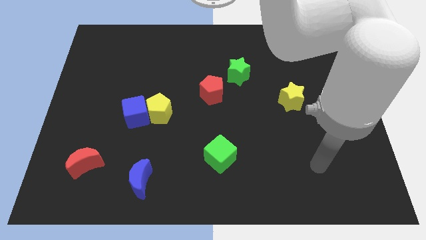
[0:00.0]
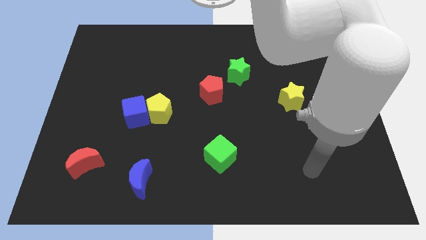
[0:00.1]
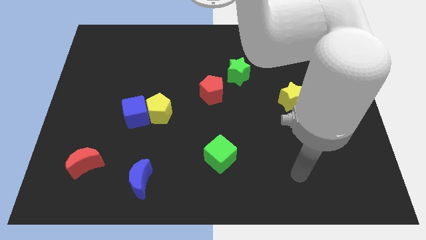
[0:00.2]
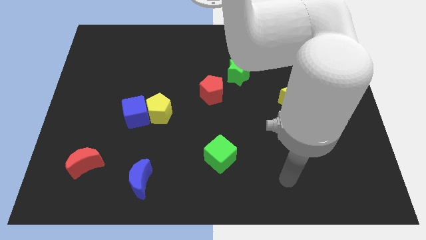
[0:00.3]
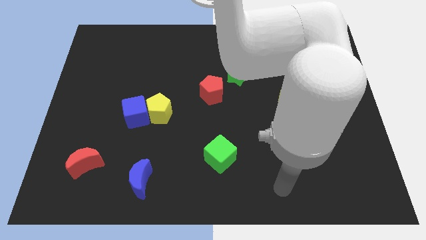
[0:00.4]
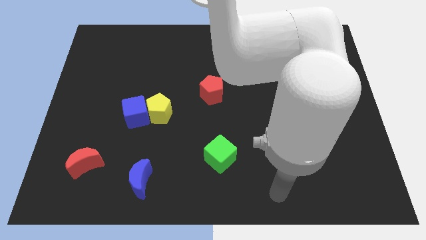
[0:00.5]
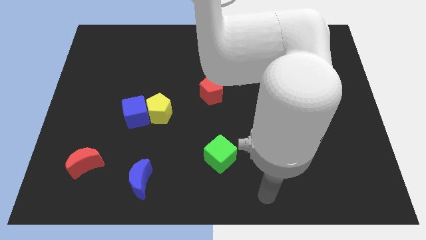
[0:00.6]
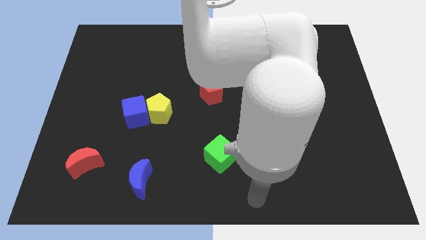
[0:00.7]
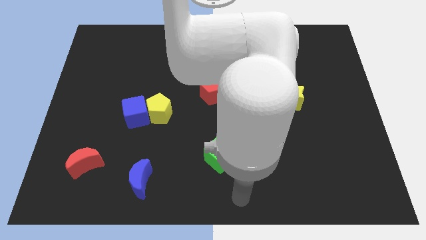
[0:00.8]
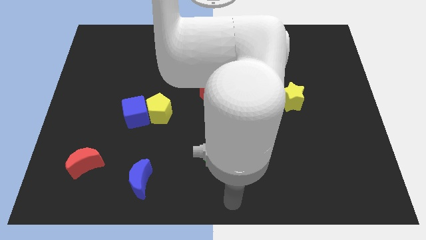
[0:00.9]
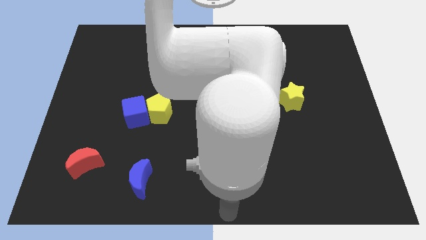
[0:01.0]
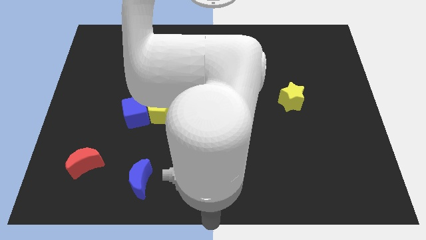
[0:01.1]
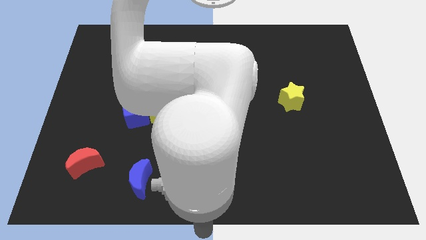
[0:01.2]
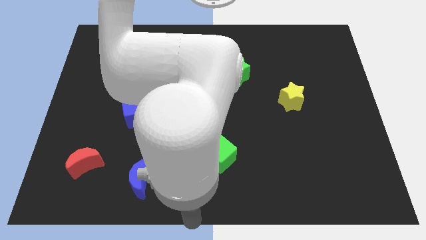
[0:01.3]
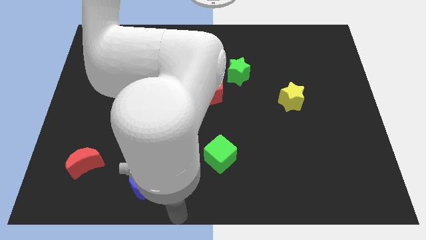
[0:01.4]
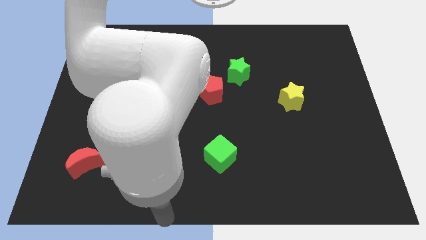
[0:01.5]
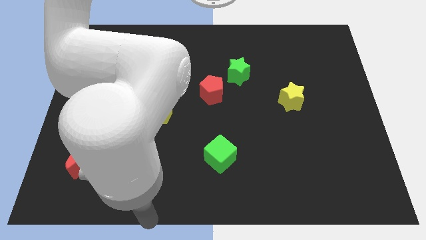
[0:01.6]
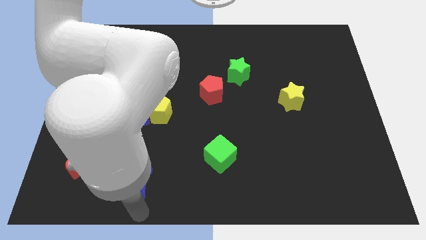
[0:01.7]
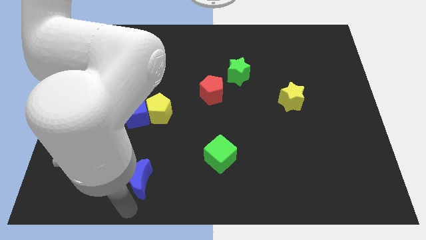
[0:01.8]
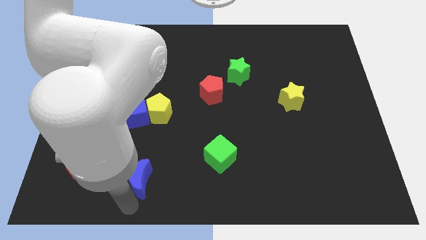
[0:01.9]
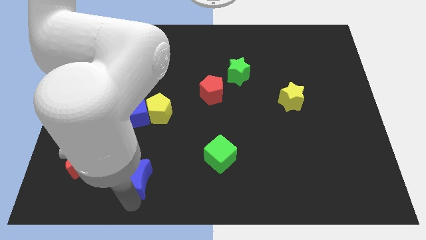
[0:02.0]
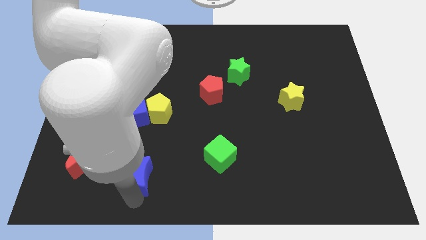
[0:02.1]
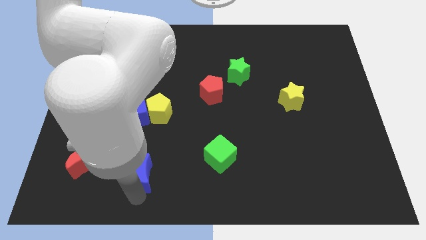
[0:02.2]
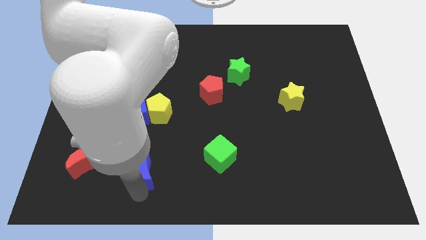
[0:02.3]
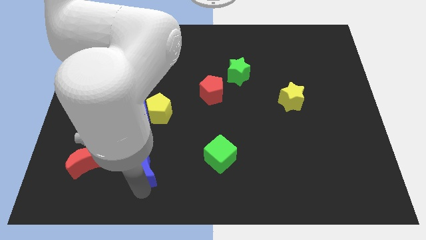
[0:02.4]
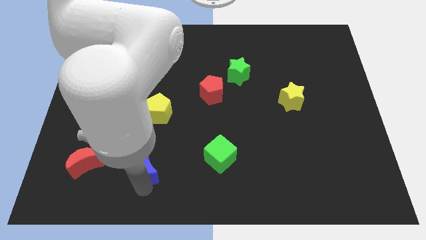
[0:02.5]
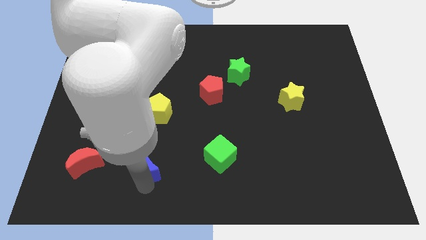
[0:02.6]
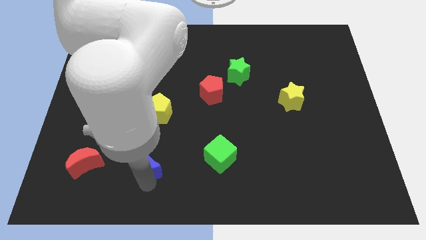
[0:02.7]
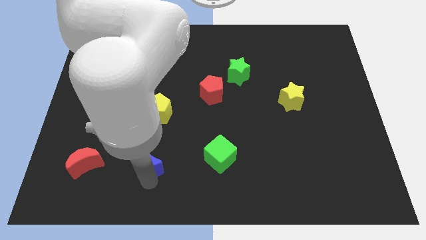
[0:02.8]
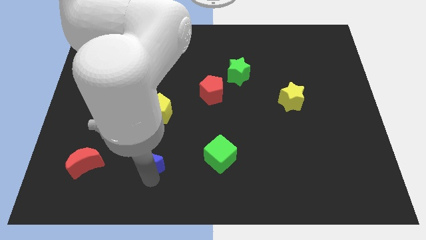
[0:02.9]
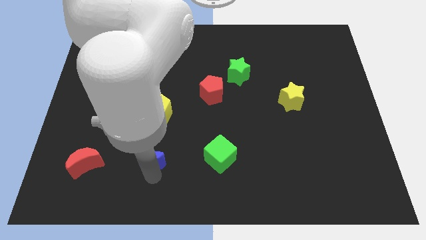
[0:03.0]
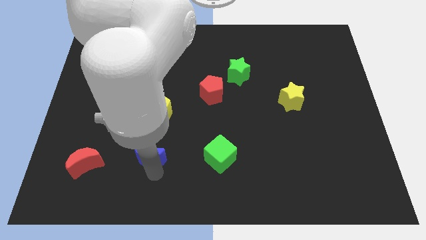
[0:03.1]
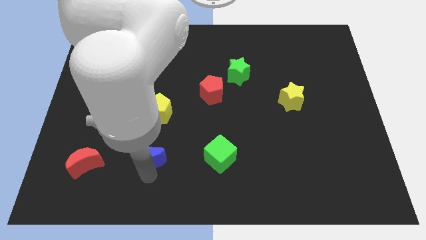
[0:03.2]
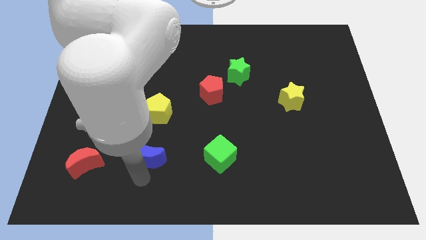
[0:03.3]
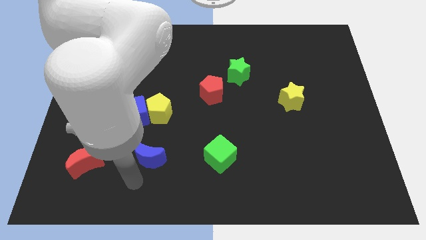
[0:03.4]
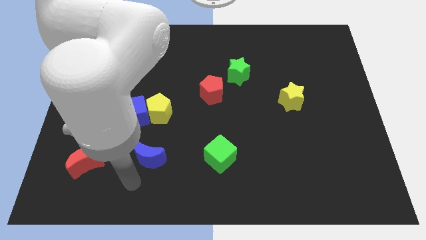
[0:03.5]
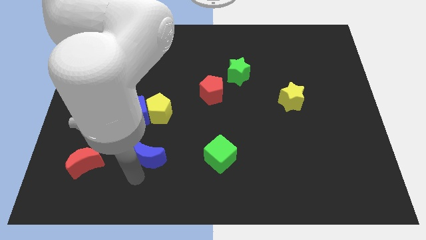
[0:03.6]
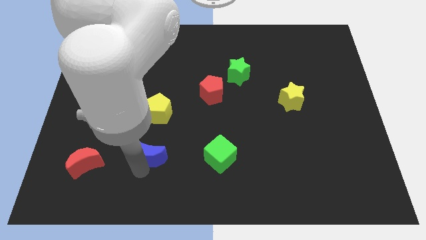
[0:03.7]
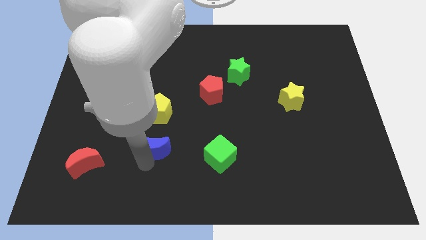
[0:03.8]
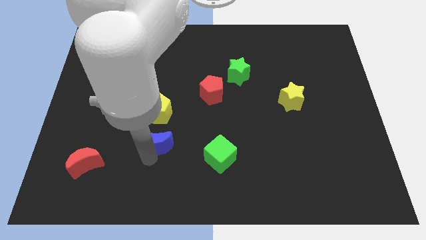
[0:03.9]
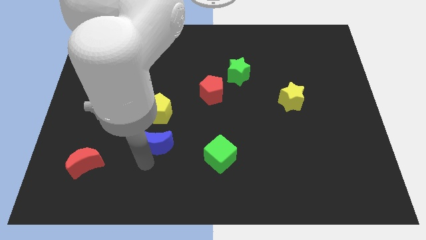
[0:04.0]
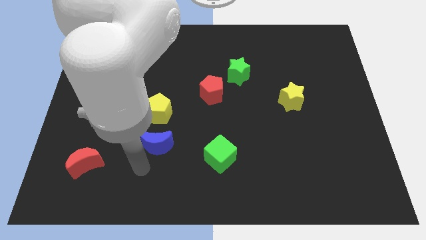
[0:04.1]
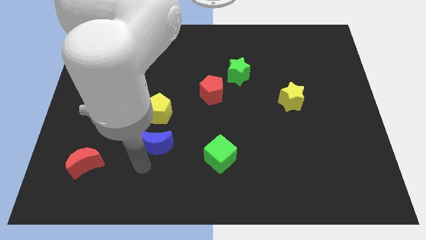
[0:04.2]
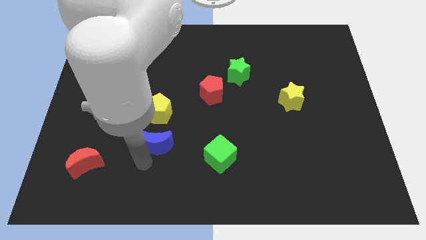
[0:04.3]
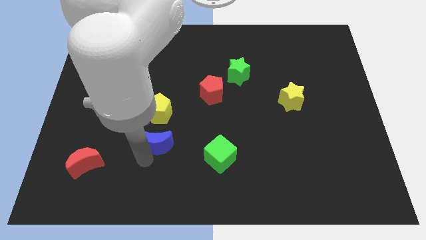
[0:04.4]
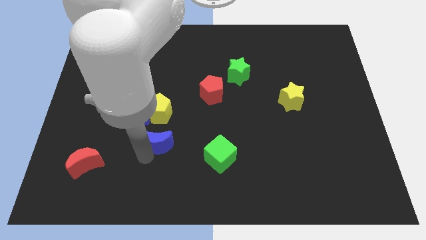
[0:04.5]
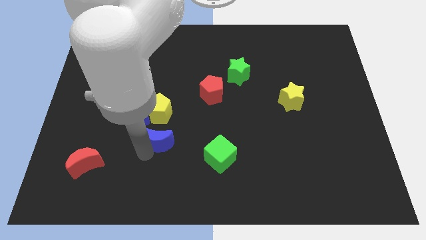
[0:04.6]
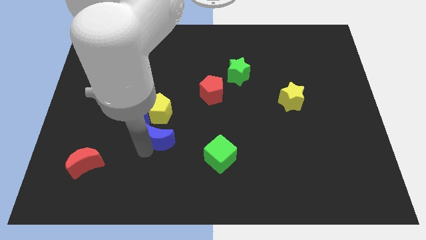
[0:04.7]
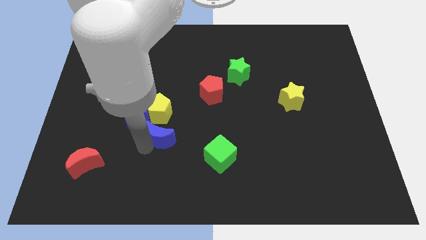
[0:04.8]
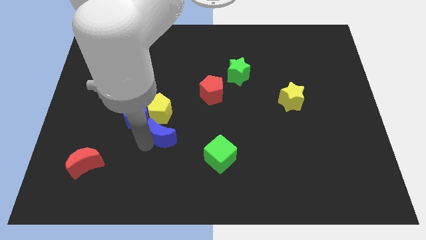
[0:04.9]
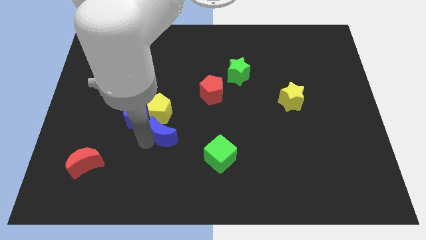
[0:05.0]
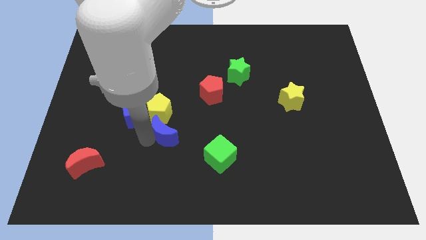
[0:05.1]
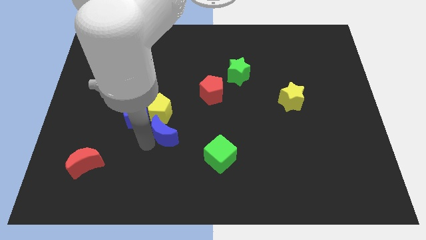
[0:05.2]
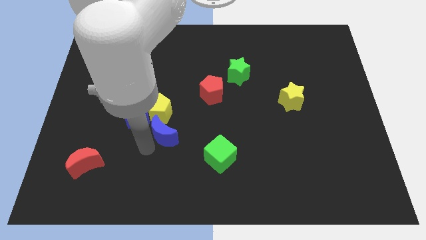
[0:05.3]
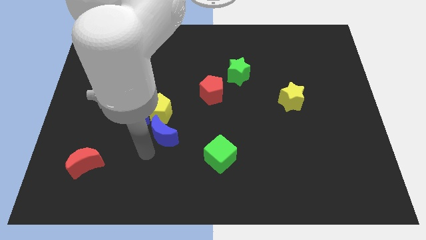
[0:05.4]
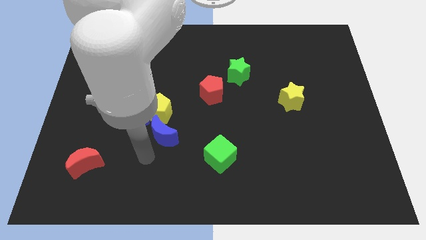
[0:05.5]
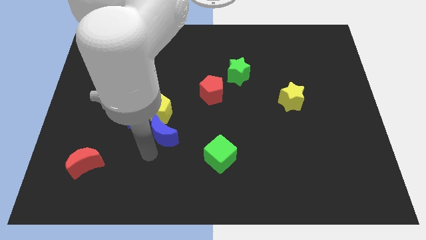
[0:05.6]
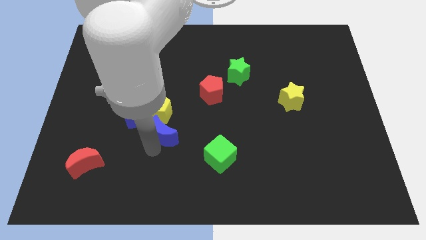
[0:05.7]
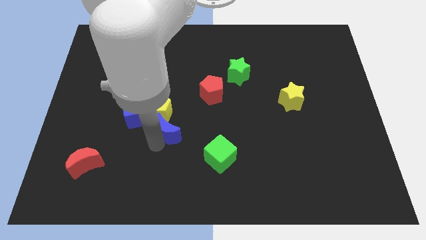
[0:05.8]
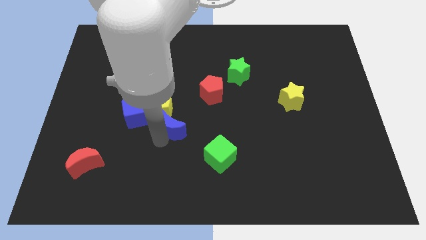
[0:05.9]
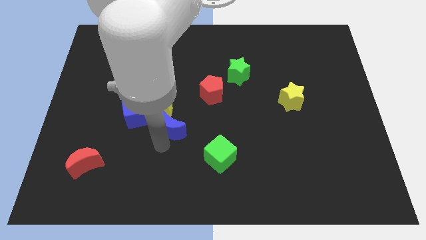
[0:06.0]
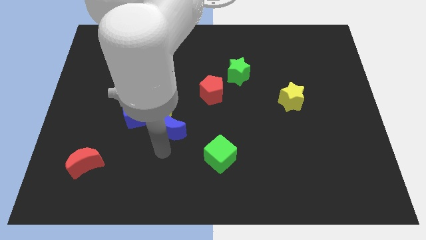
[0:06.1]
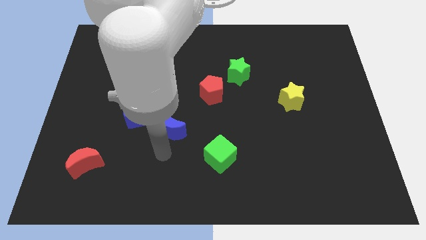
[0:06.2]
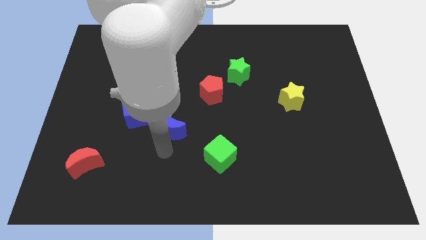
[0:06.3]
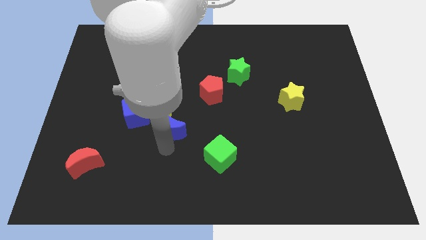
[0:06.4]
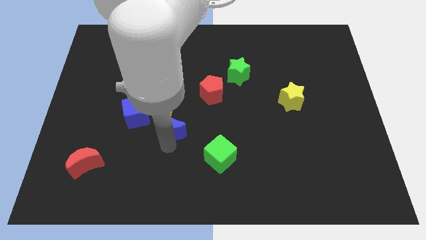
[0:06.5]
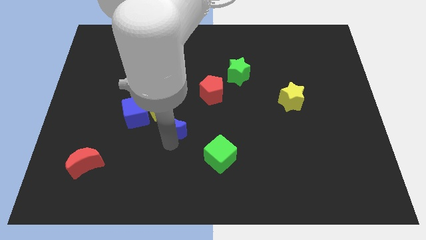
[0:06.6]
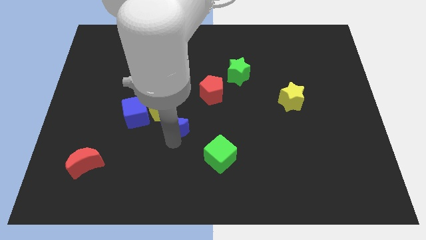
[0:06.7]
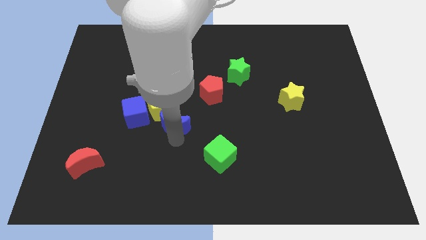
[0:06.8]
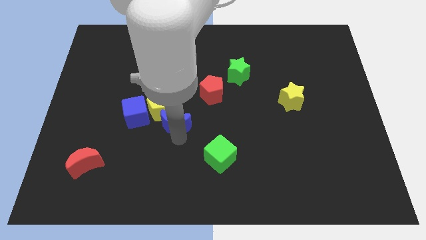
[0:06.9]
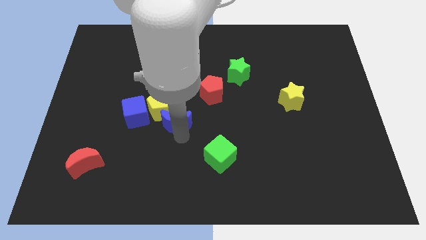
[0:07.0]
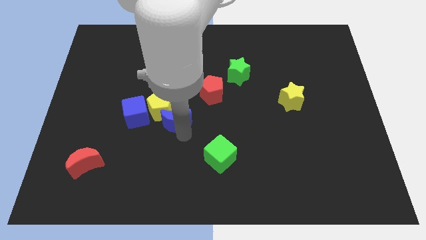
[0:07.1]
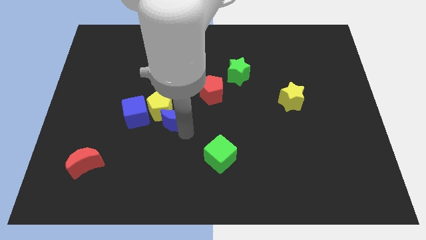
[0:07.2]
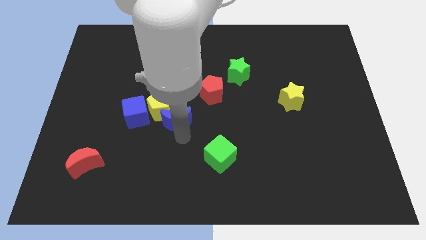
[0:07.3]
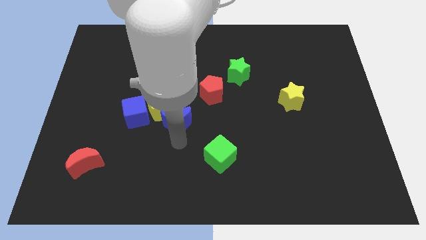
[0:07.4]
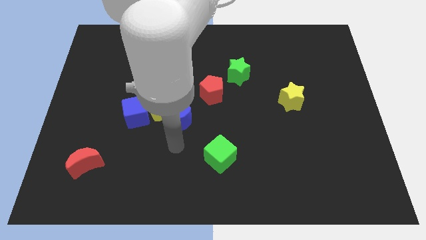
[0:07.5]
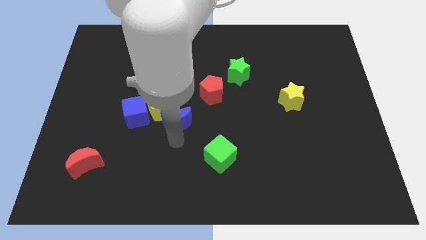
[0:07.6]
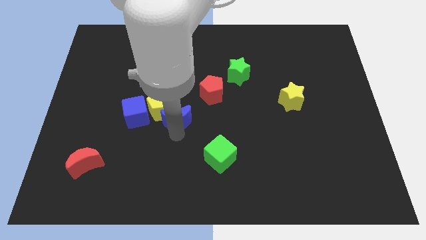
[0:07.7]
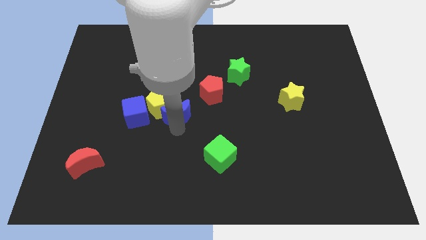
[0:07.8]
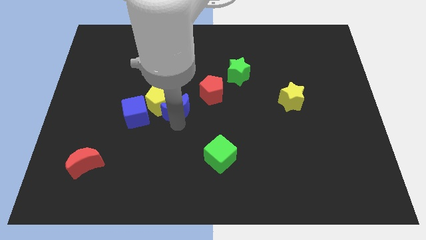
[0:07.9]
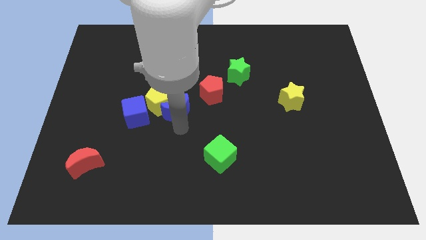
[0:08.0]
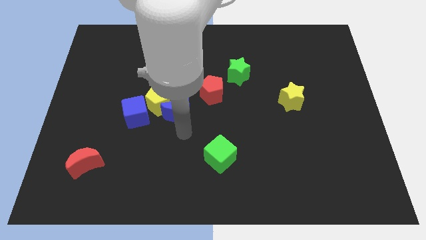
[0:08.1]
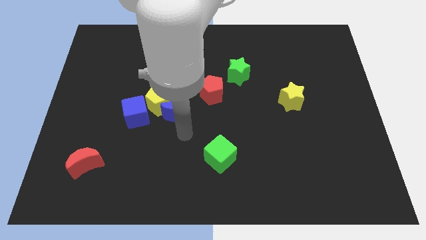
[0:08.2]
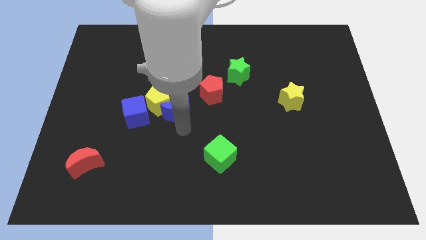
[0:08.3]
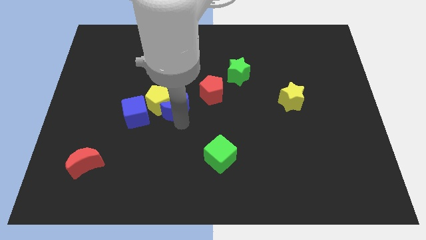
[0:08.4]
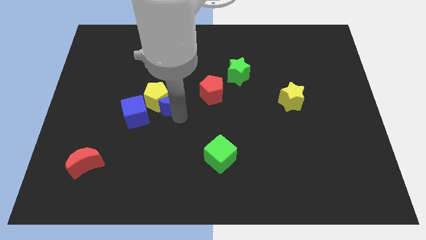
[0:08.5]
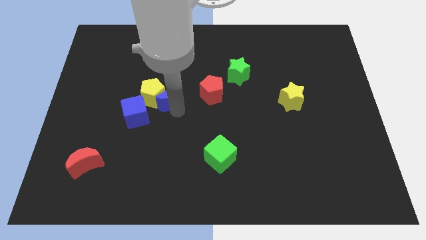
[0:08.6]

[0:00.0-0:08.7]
slide the blue moon up
